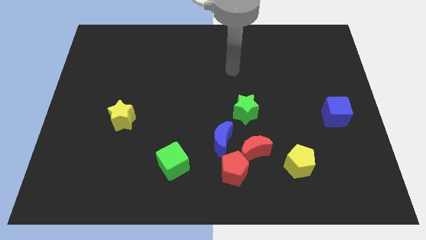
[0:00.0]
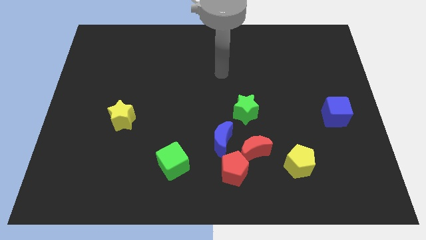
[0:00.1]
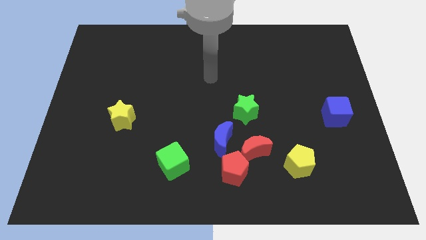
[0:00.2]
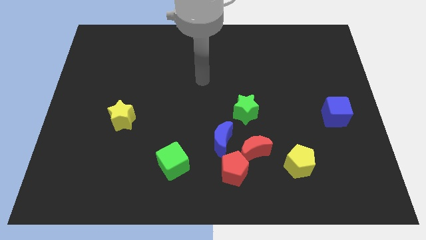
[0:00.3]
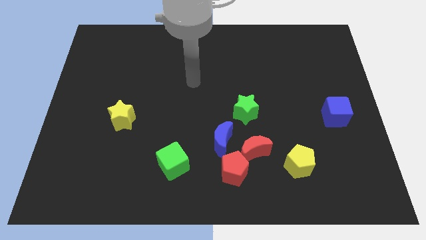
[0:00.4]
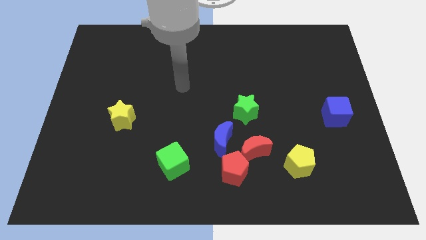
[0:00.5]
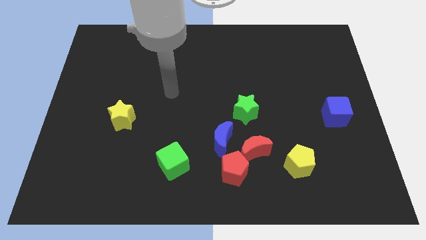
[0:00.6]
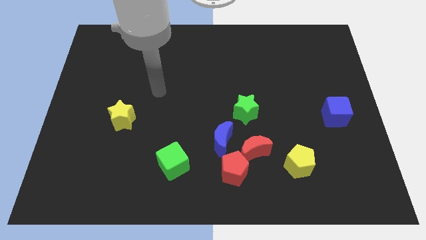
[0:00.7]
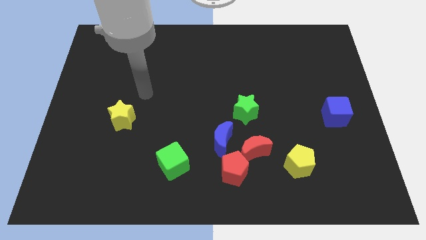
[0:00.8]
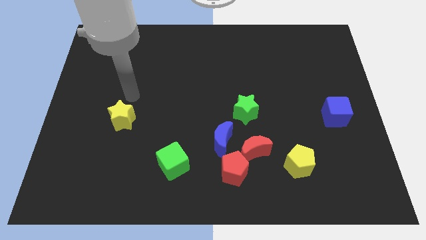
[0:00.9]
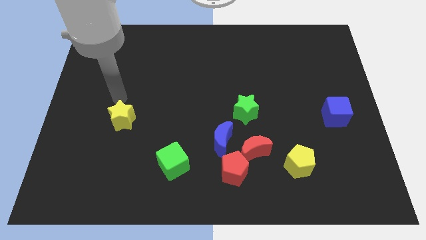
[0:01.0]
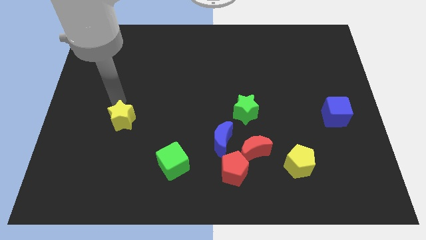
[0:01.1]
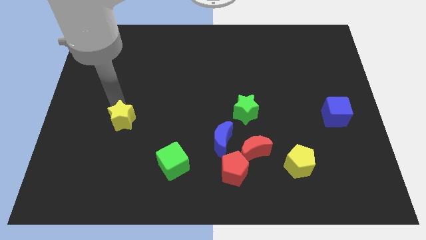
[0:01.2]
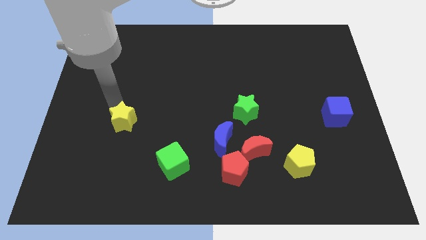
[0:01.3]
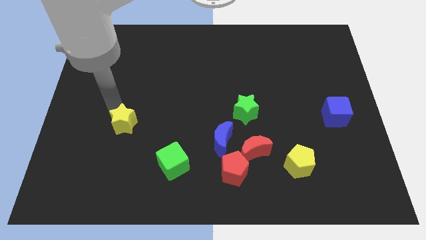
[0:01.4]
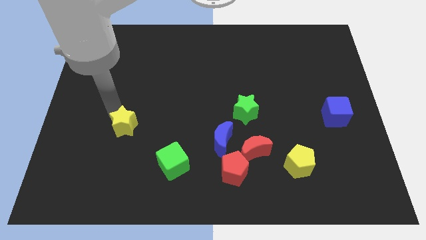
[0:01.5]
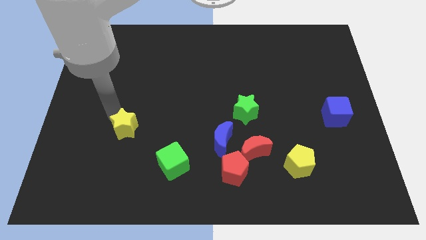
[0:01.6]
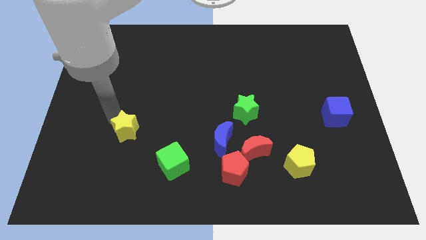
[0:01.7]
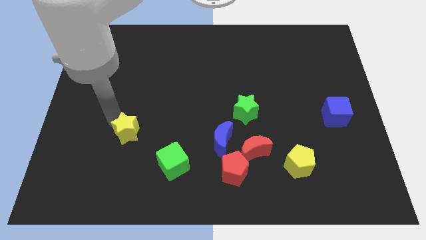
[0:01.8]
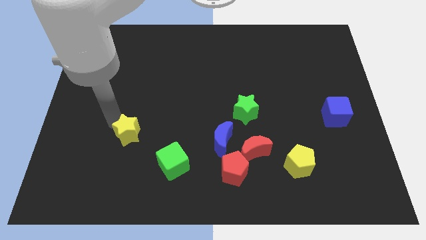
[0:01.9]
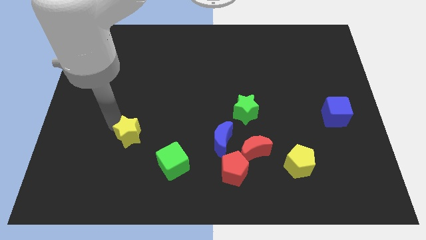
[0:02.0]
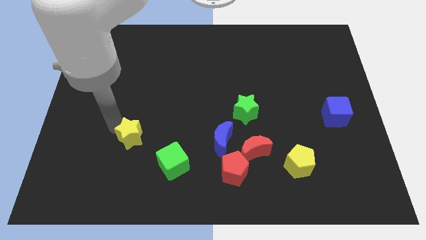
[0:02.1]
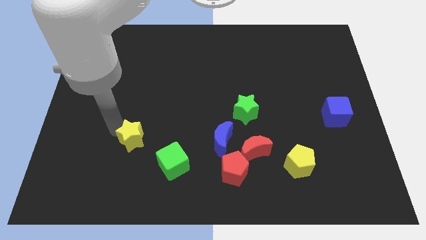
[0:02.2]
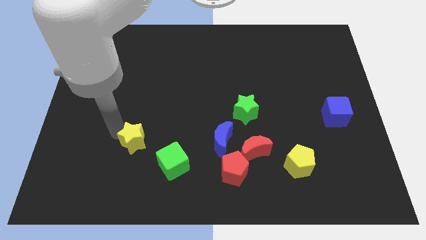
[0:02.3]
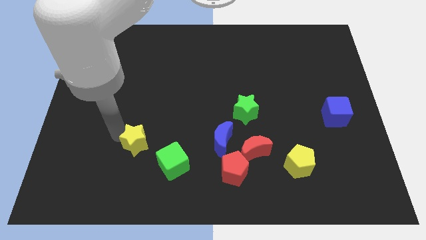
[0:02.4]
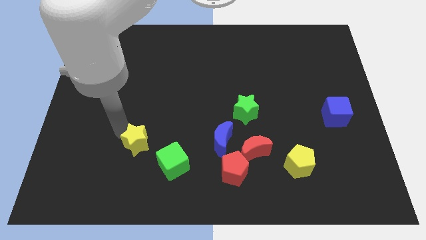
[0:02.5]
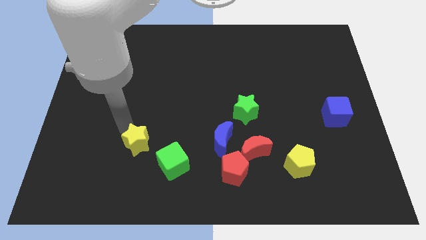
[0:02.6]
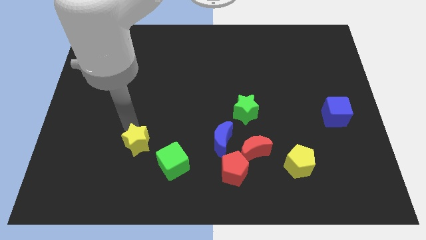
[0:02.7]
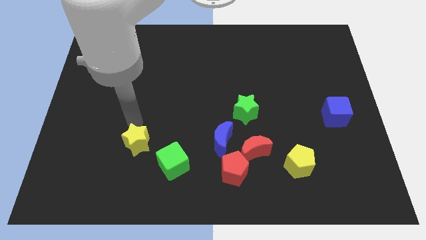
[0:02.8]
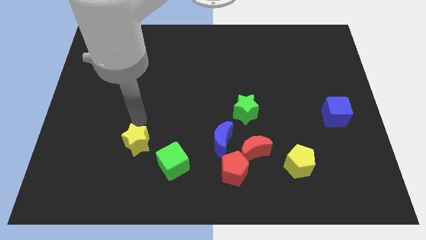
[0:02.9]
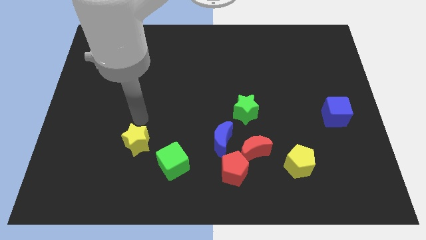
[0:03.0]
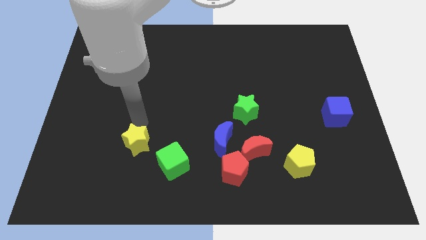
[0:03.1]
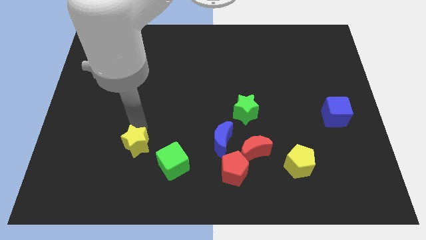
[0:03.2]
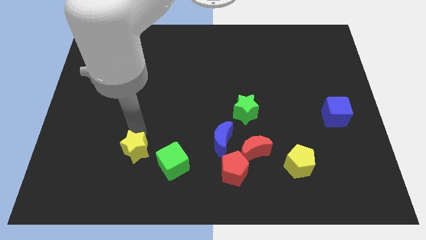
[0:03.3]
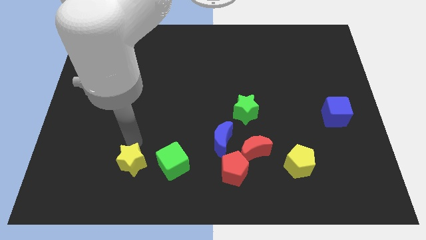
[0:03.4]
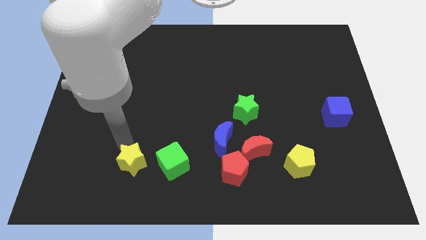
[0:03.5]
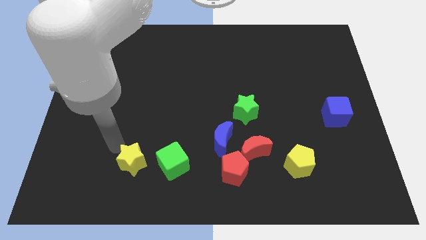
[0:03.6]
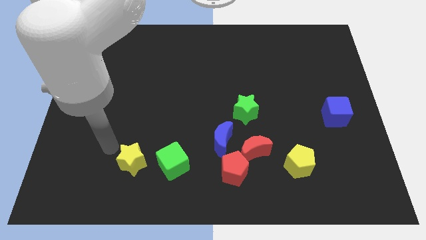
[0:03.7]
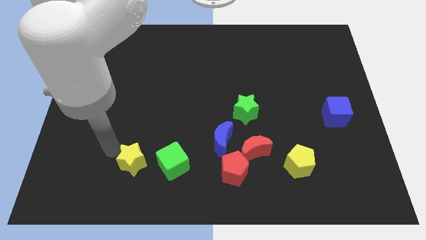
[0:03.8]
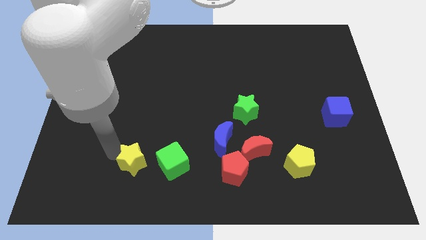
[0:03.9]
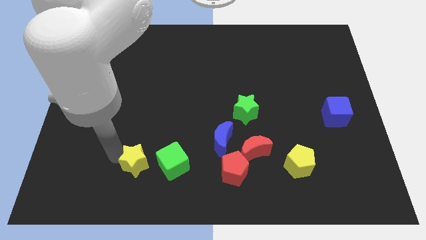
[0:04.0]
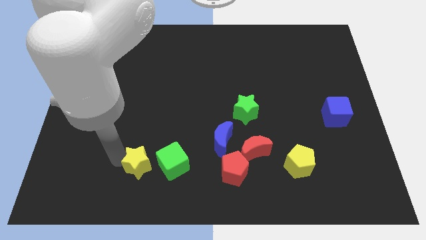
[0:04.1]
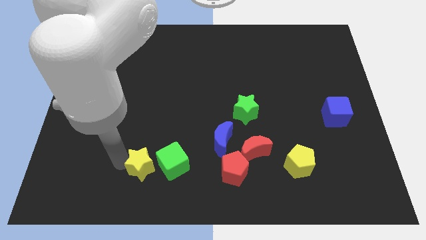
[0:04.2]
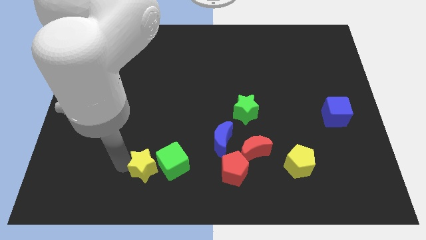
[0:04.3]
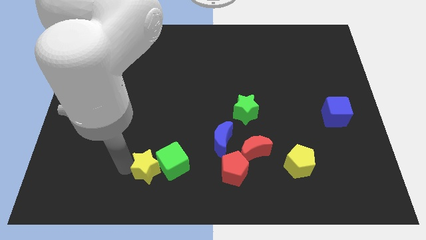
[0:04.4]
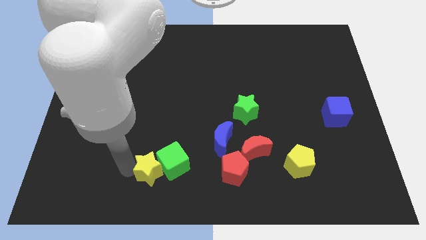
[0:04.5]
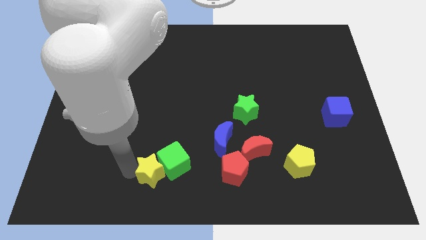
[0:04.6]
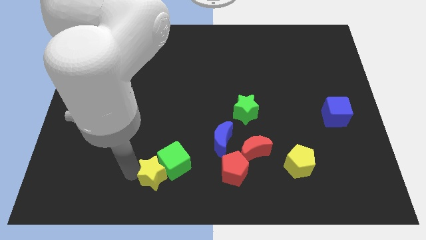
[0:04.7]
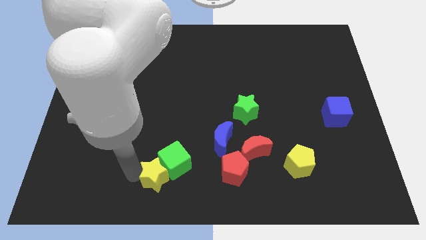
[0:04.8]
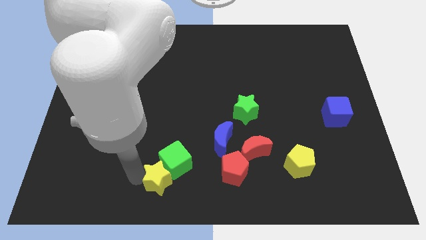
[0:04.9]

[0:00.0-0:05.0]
move the yellow star to the bottom

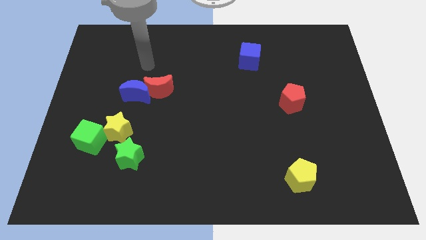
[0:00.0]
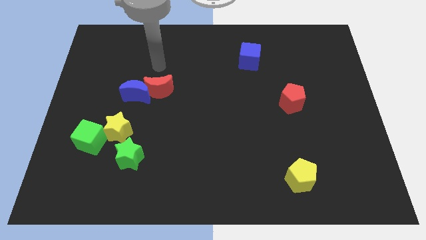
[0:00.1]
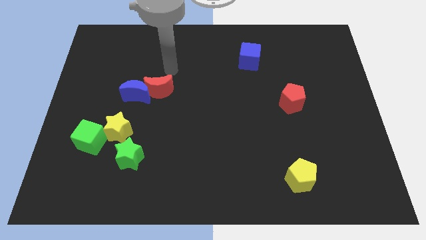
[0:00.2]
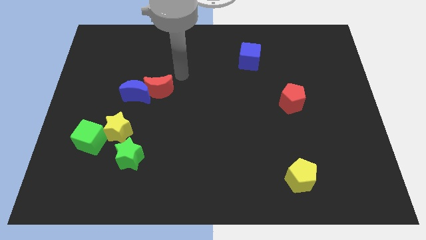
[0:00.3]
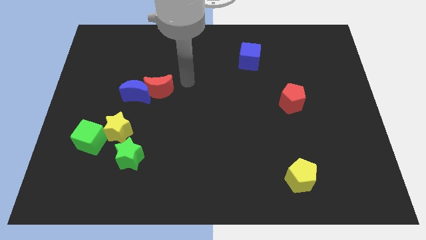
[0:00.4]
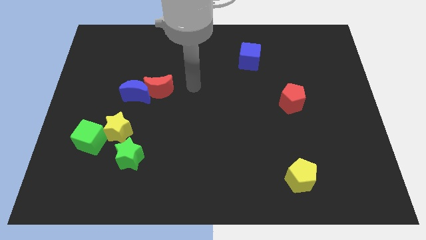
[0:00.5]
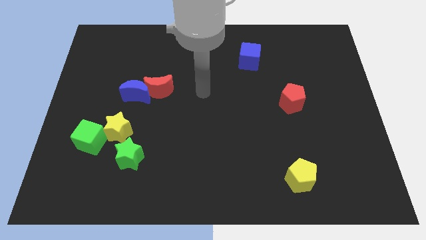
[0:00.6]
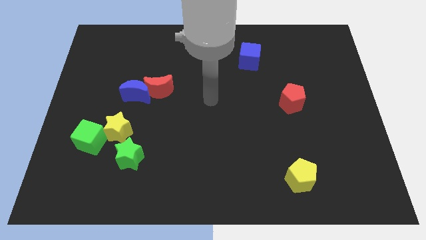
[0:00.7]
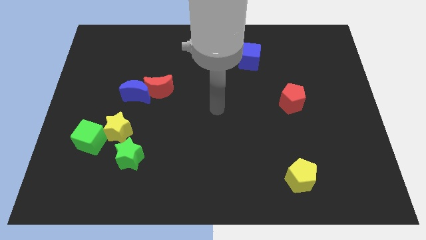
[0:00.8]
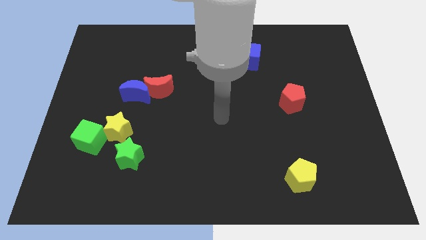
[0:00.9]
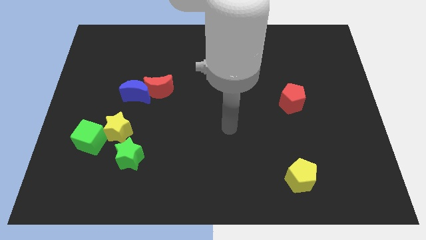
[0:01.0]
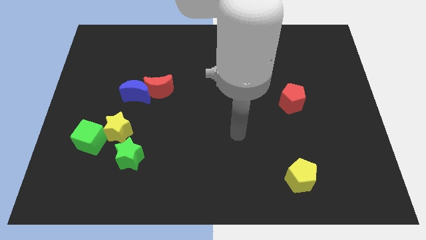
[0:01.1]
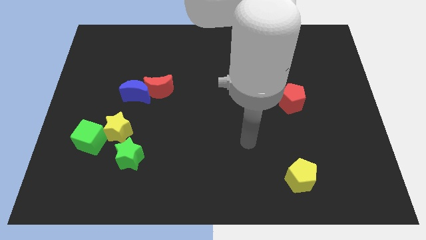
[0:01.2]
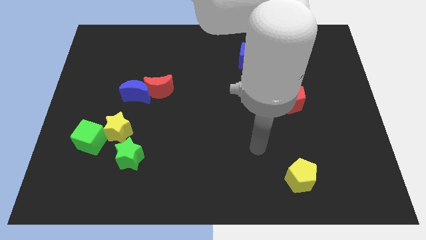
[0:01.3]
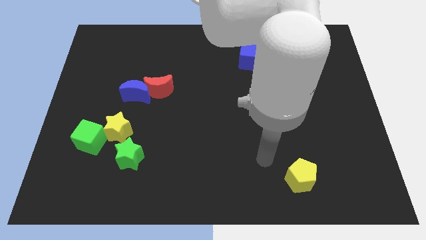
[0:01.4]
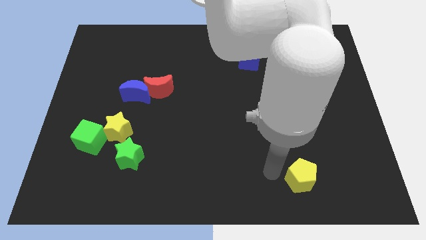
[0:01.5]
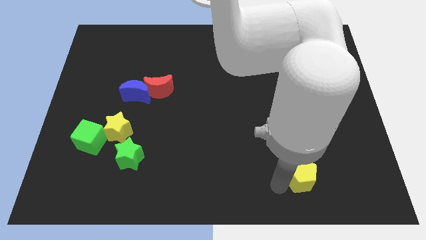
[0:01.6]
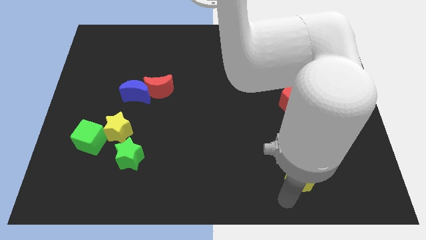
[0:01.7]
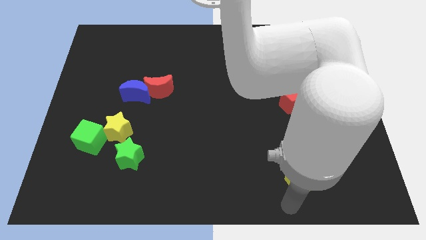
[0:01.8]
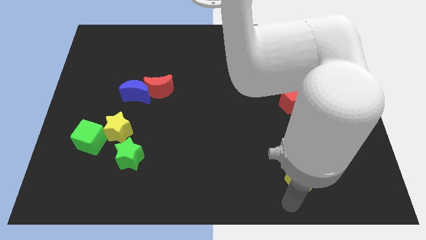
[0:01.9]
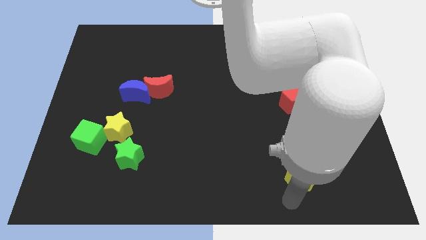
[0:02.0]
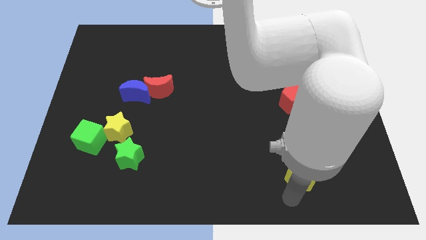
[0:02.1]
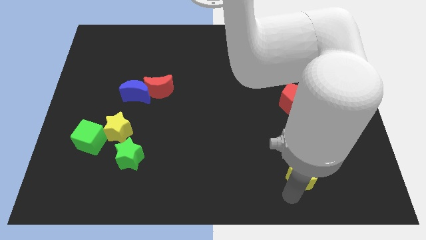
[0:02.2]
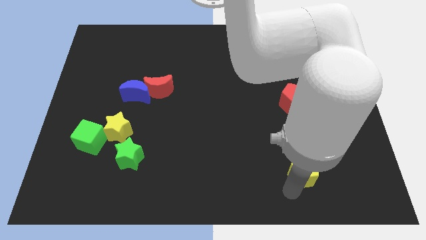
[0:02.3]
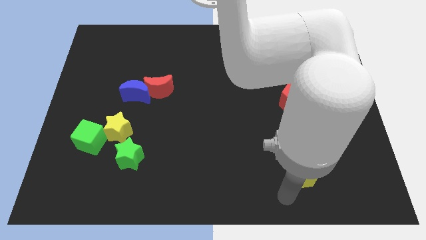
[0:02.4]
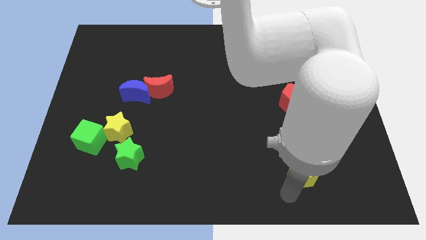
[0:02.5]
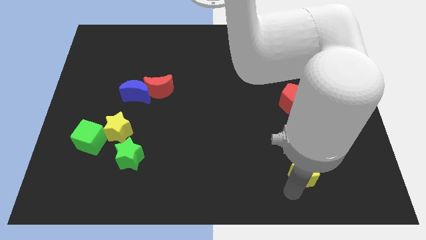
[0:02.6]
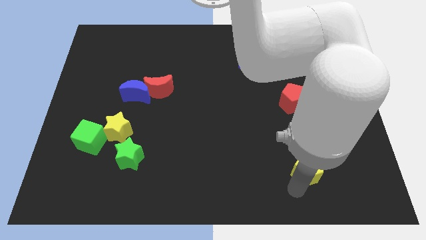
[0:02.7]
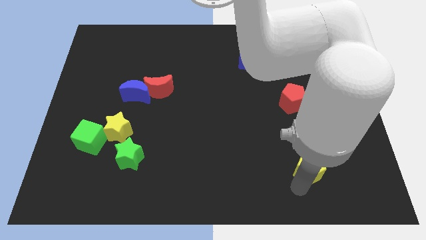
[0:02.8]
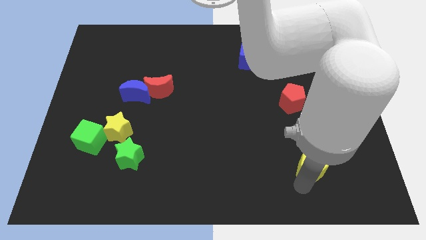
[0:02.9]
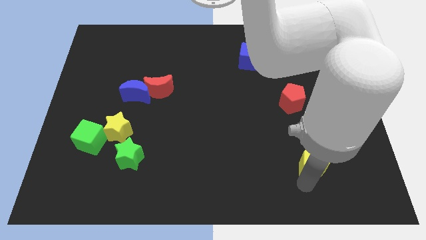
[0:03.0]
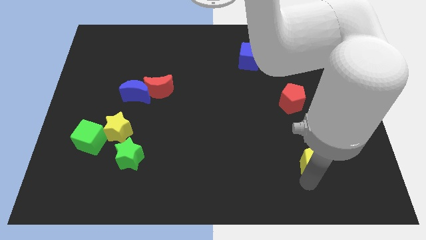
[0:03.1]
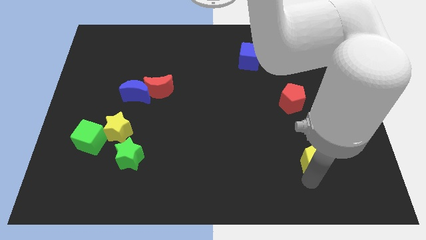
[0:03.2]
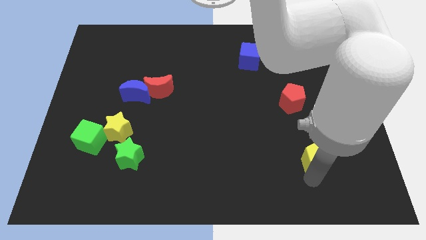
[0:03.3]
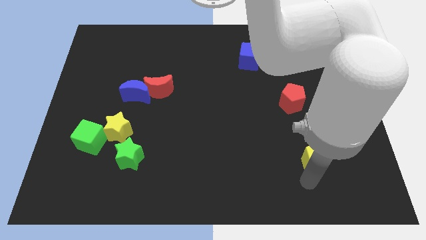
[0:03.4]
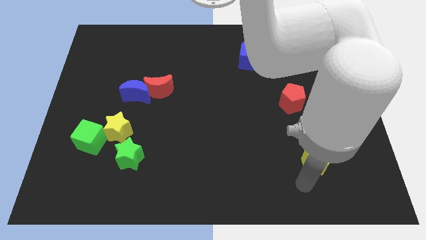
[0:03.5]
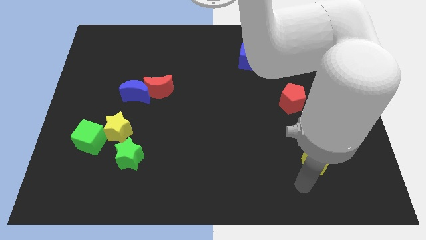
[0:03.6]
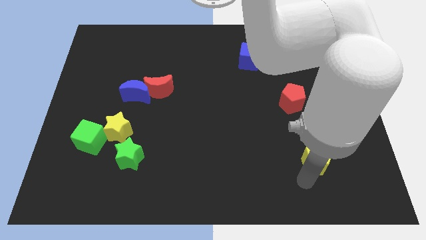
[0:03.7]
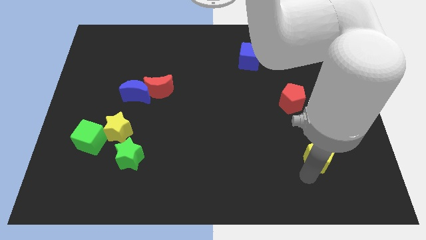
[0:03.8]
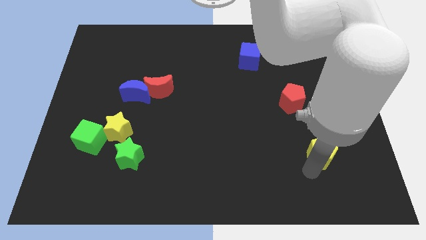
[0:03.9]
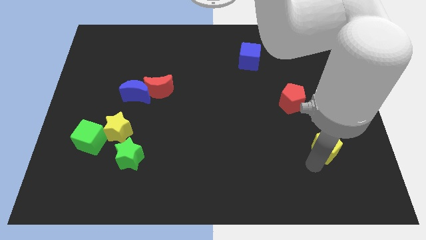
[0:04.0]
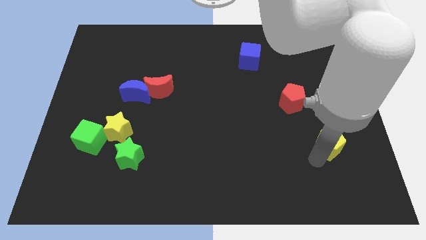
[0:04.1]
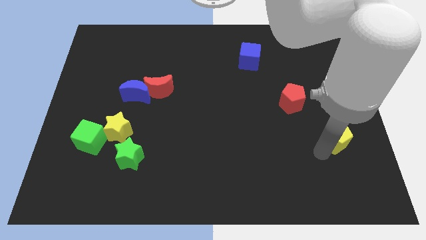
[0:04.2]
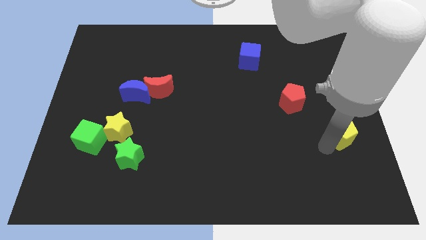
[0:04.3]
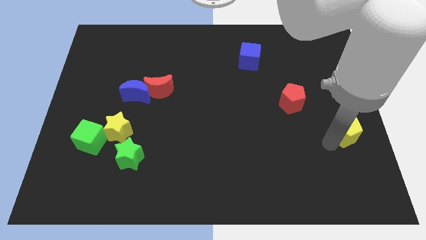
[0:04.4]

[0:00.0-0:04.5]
push the yellow pentagon to the right side of the board
